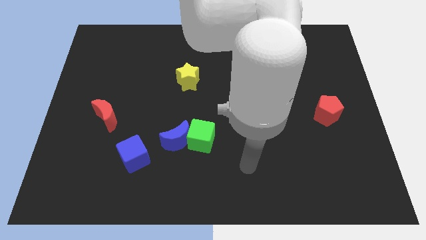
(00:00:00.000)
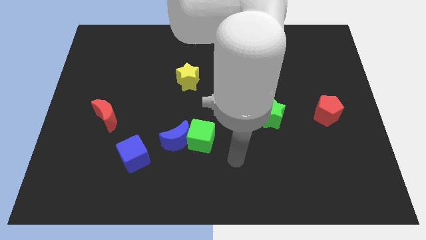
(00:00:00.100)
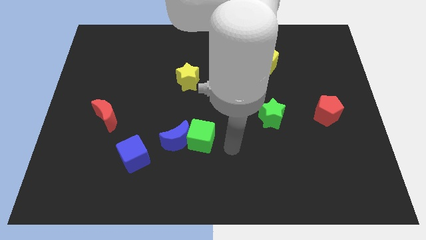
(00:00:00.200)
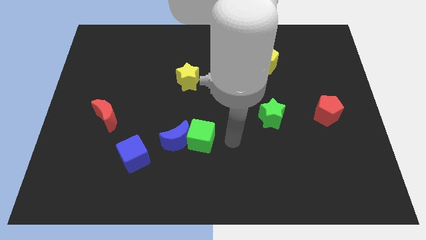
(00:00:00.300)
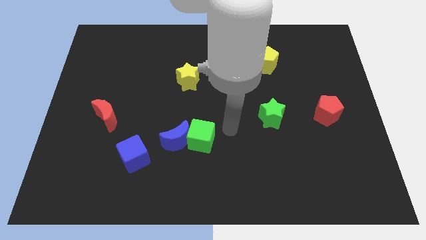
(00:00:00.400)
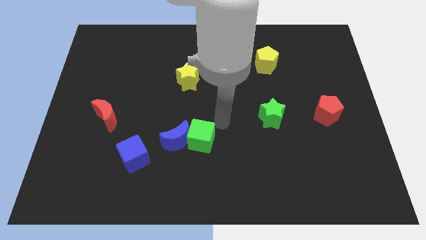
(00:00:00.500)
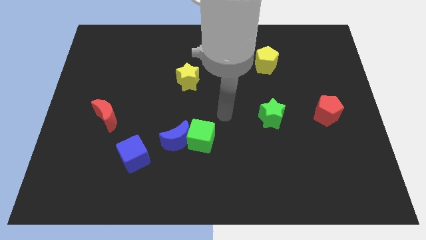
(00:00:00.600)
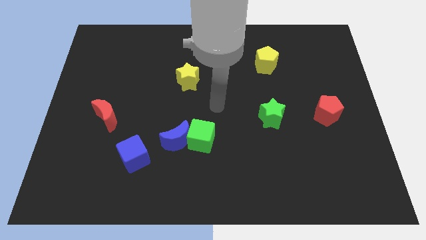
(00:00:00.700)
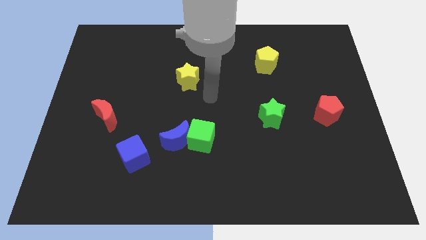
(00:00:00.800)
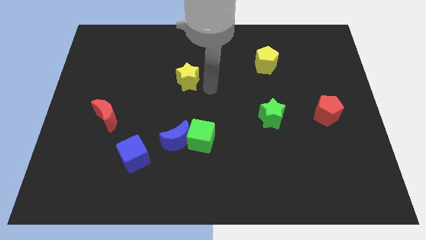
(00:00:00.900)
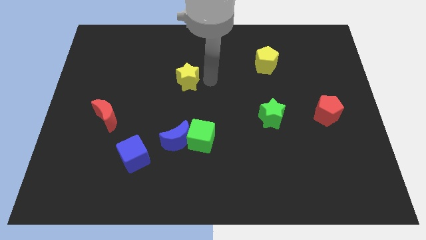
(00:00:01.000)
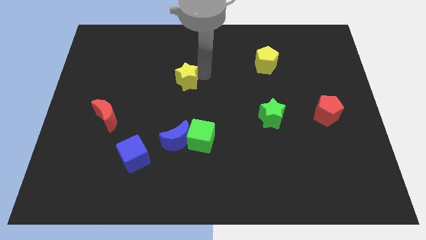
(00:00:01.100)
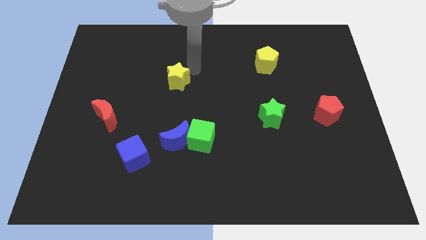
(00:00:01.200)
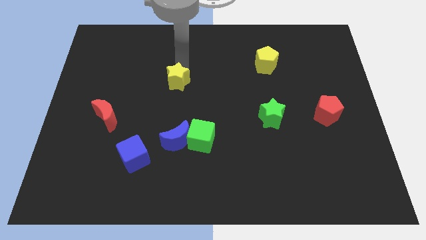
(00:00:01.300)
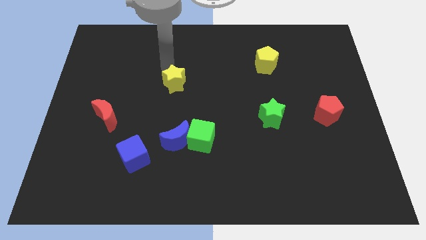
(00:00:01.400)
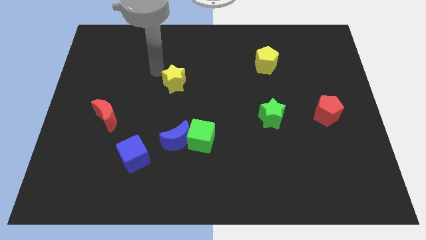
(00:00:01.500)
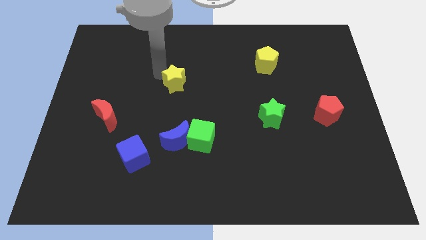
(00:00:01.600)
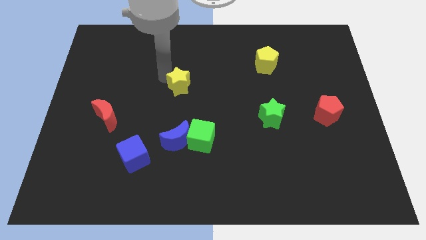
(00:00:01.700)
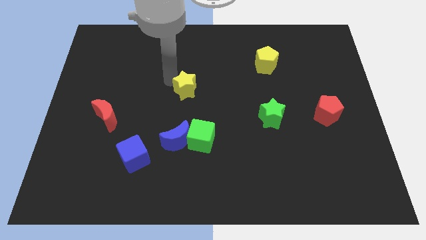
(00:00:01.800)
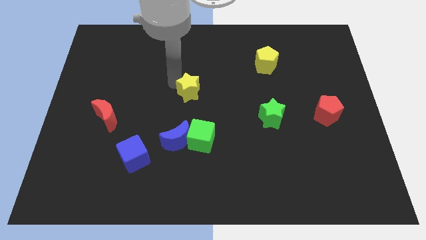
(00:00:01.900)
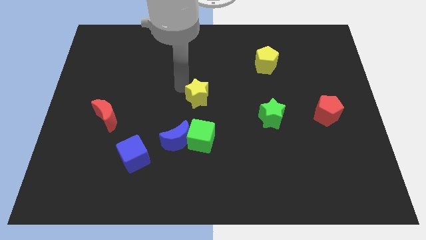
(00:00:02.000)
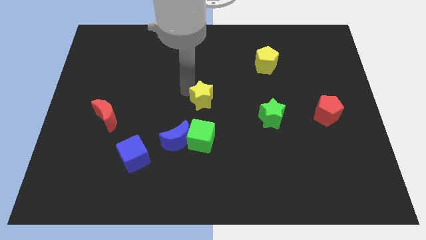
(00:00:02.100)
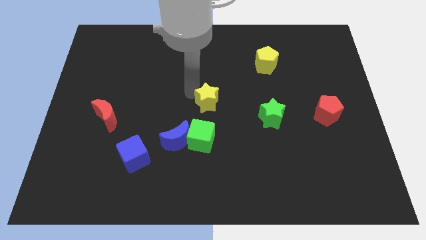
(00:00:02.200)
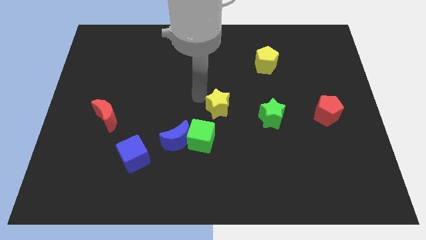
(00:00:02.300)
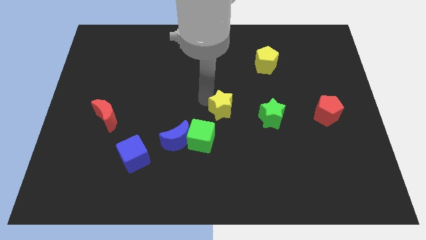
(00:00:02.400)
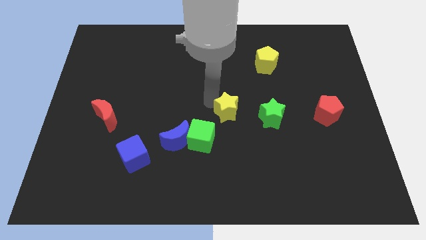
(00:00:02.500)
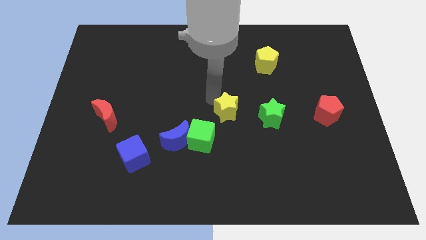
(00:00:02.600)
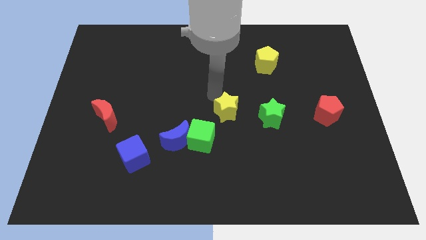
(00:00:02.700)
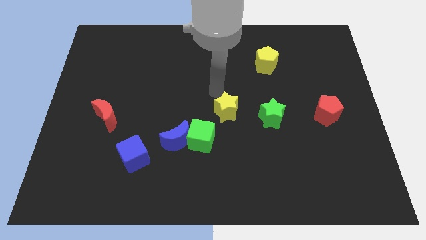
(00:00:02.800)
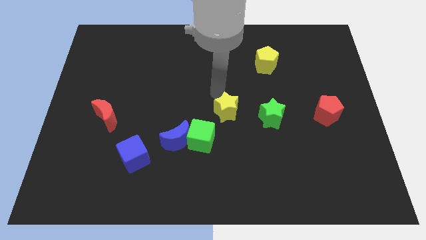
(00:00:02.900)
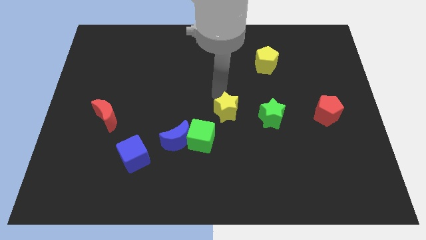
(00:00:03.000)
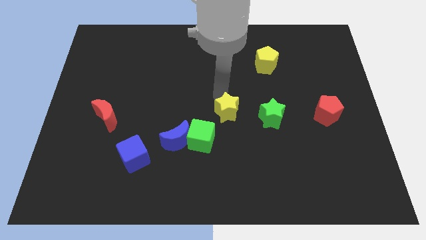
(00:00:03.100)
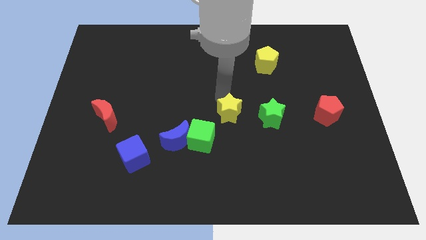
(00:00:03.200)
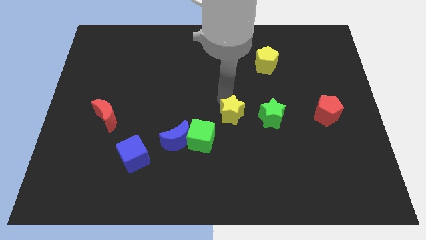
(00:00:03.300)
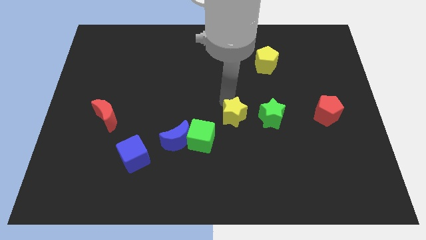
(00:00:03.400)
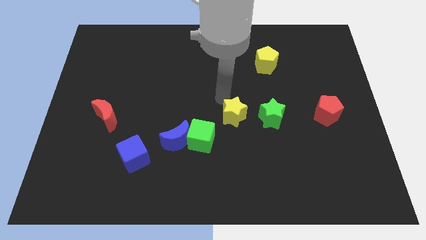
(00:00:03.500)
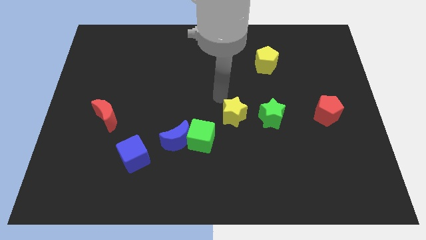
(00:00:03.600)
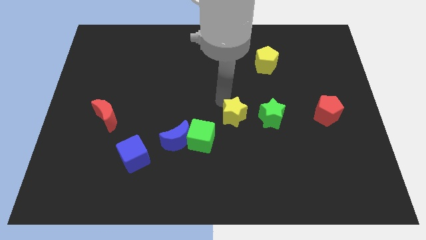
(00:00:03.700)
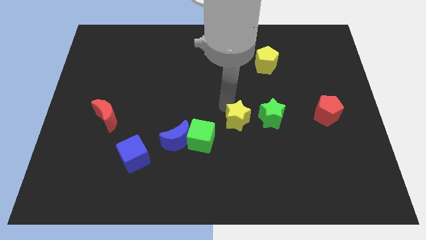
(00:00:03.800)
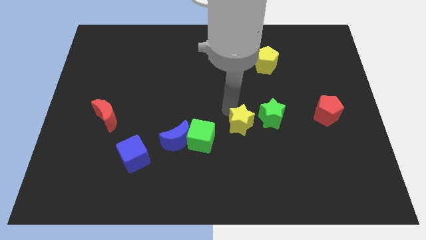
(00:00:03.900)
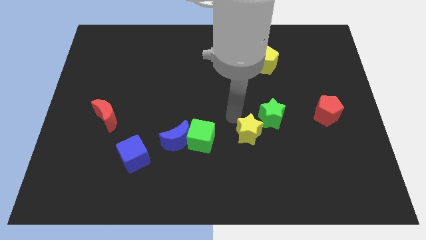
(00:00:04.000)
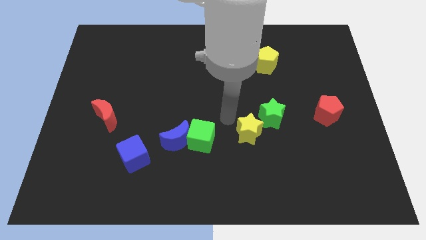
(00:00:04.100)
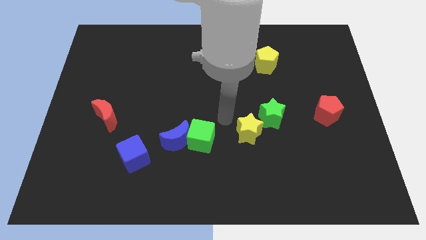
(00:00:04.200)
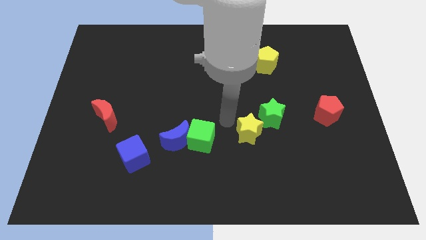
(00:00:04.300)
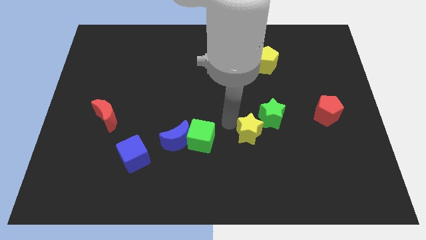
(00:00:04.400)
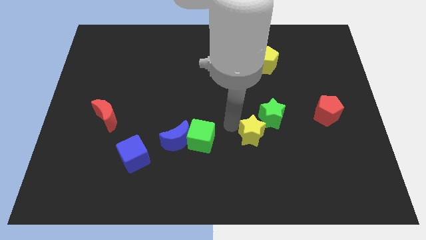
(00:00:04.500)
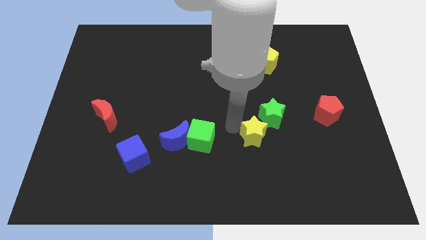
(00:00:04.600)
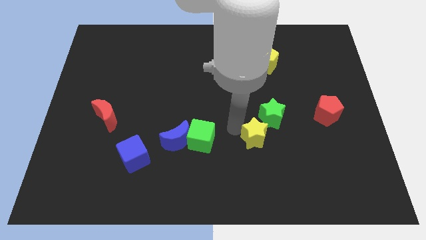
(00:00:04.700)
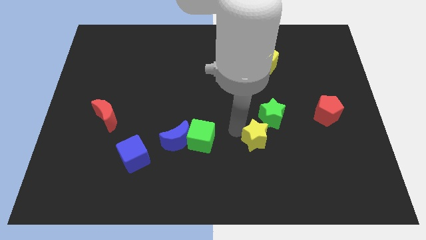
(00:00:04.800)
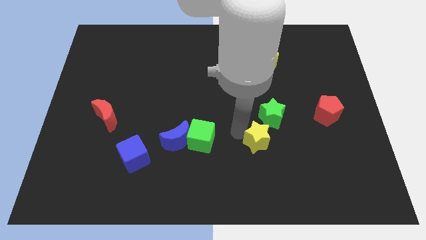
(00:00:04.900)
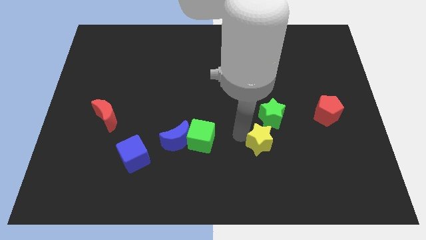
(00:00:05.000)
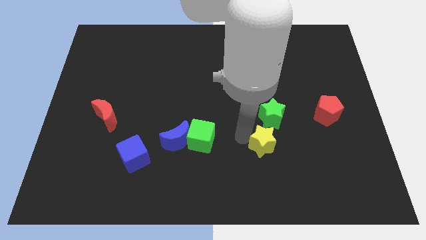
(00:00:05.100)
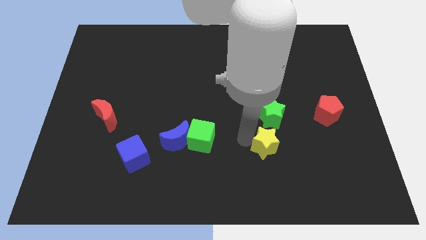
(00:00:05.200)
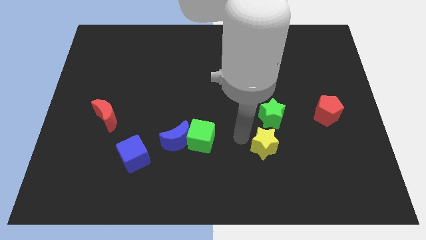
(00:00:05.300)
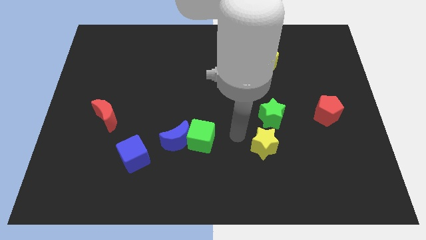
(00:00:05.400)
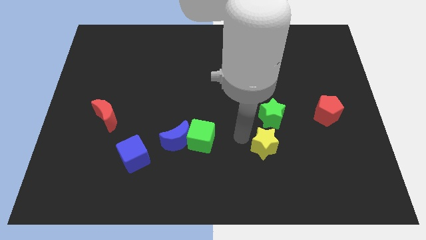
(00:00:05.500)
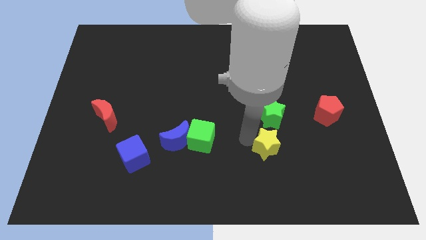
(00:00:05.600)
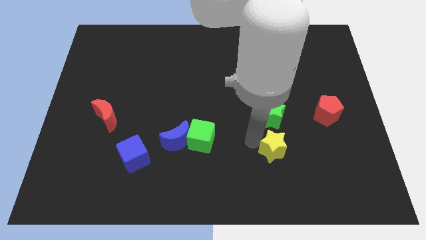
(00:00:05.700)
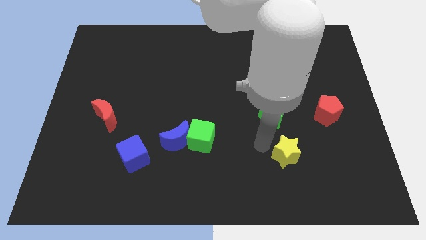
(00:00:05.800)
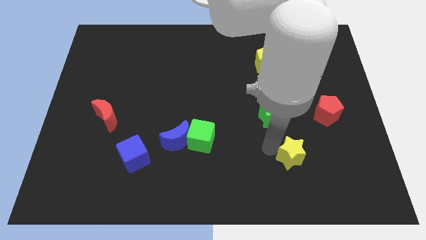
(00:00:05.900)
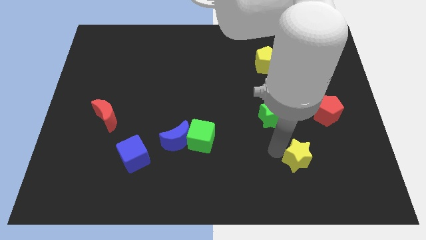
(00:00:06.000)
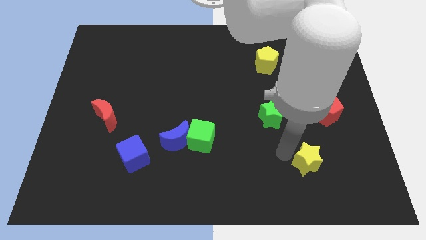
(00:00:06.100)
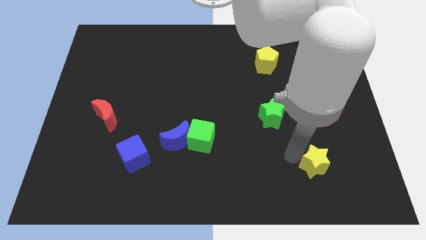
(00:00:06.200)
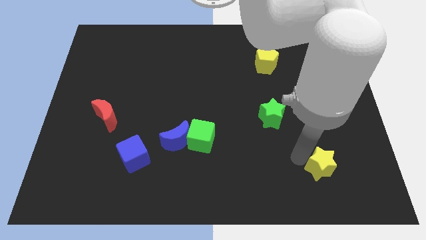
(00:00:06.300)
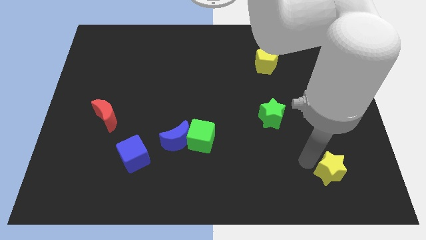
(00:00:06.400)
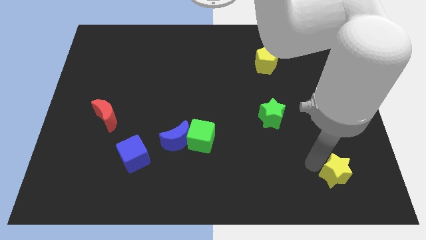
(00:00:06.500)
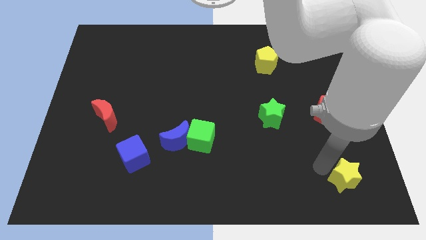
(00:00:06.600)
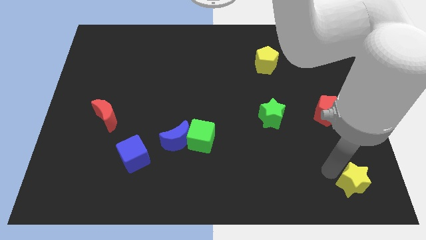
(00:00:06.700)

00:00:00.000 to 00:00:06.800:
put the yellow star to the bottom right of the board

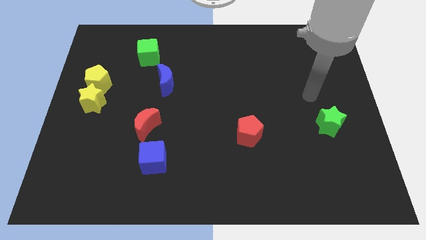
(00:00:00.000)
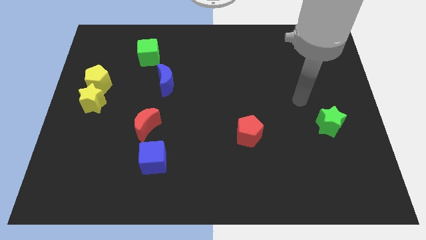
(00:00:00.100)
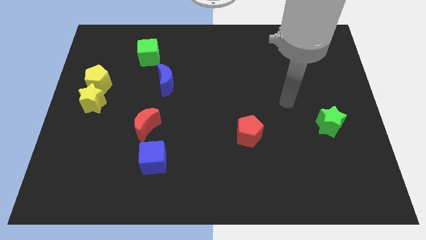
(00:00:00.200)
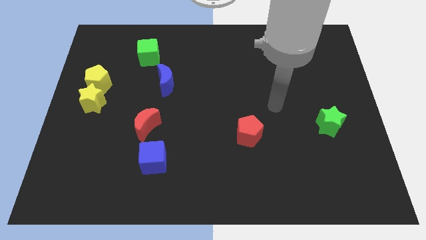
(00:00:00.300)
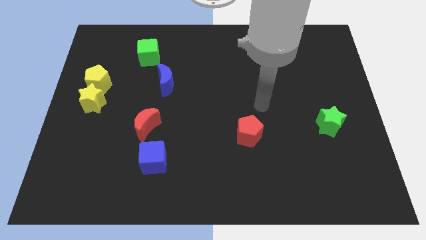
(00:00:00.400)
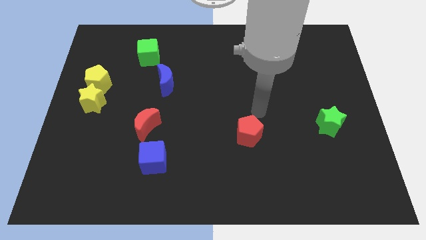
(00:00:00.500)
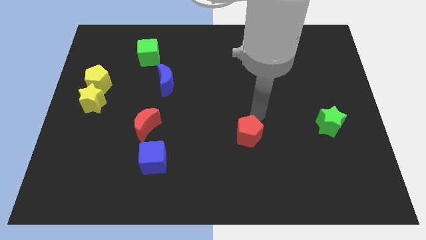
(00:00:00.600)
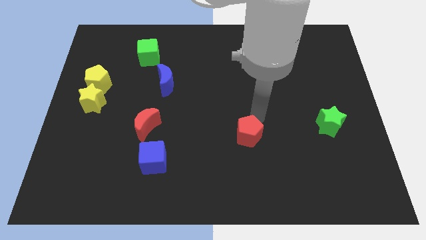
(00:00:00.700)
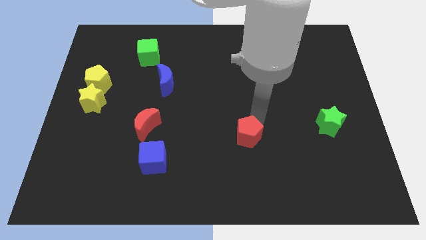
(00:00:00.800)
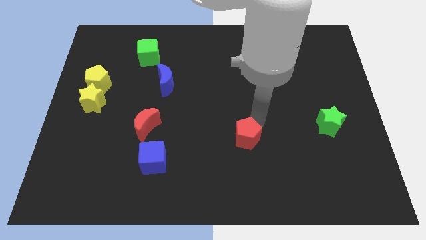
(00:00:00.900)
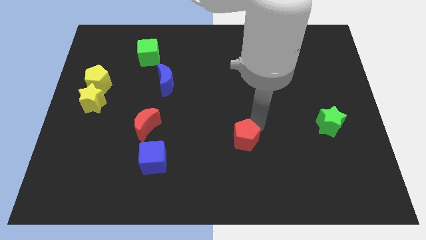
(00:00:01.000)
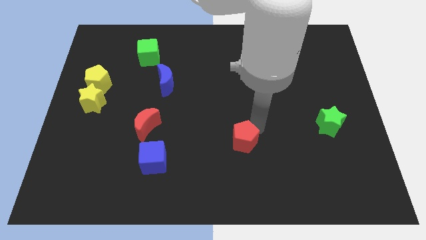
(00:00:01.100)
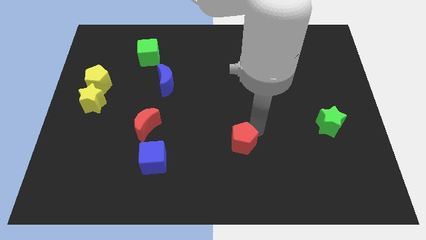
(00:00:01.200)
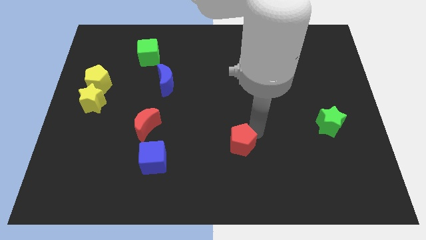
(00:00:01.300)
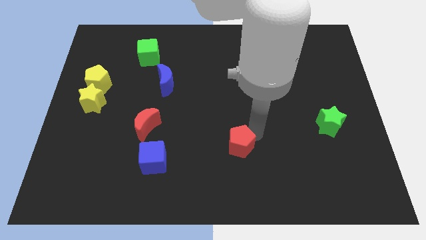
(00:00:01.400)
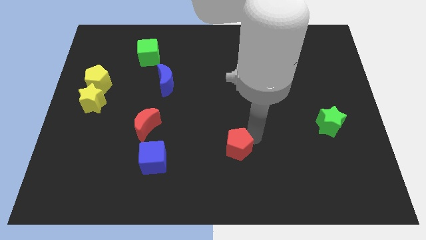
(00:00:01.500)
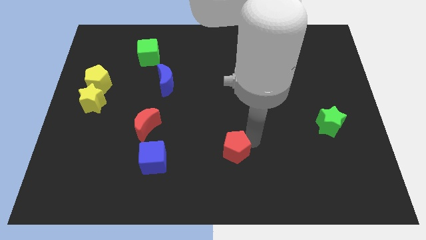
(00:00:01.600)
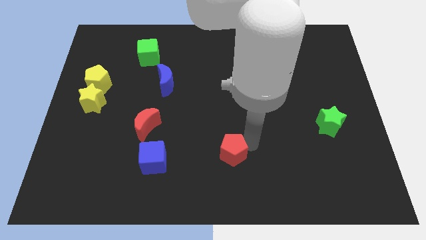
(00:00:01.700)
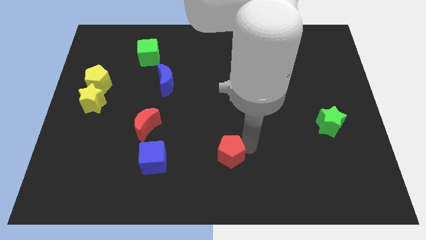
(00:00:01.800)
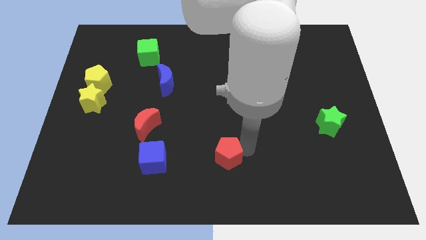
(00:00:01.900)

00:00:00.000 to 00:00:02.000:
move the red pentagon to the bottom side
